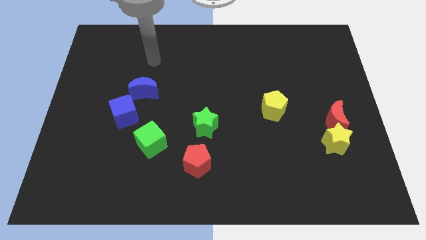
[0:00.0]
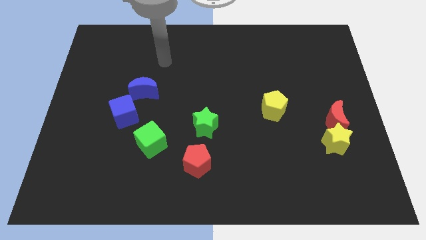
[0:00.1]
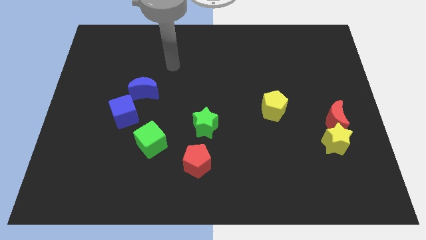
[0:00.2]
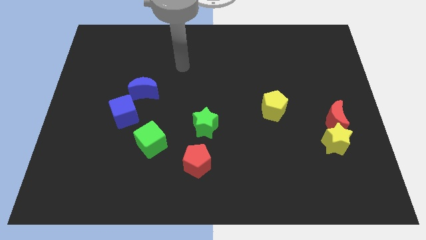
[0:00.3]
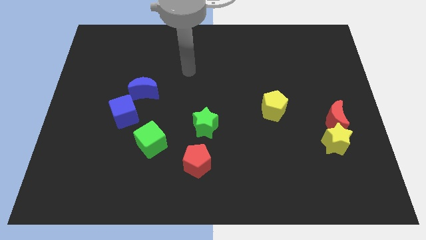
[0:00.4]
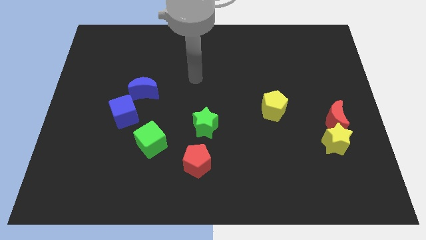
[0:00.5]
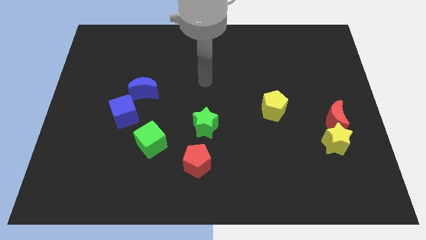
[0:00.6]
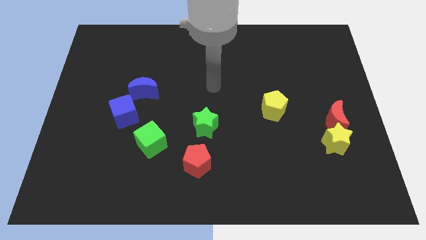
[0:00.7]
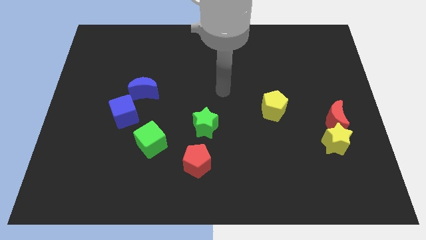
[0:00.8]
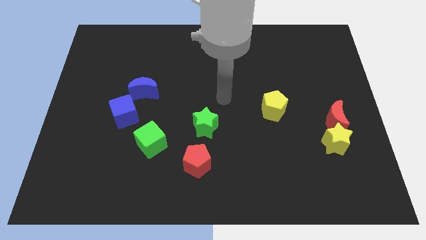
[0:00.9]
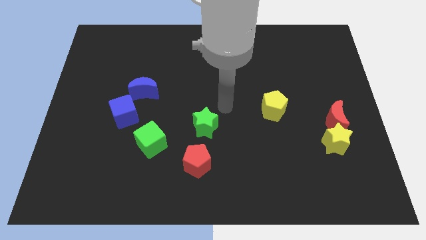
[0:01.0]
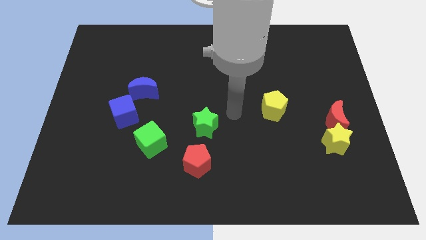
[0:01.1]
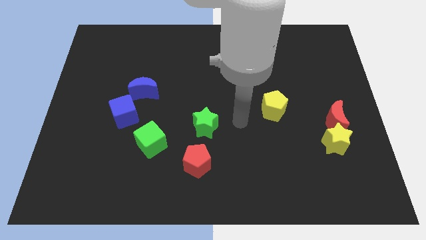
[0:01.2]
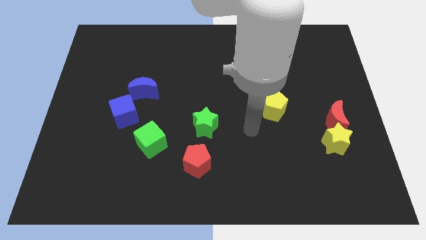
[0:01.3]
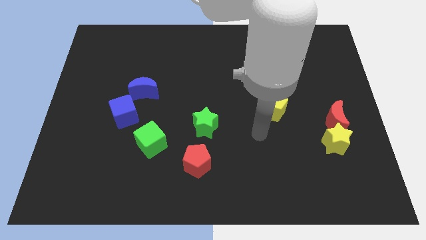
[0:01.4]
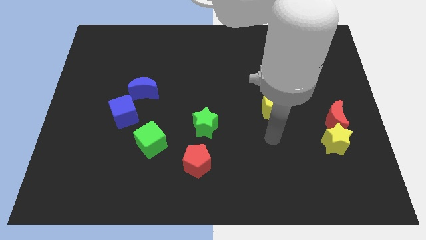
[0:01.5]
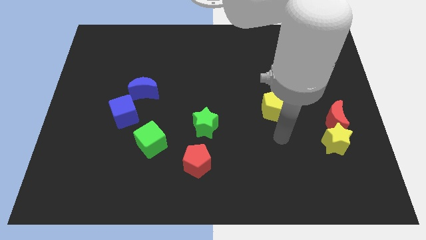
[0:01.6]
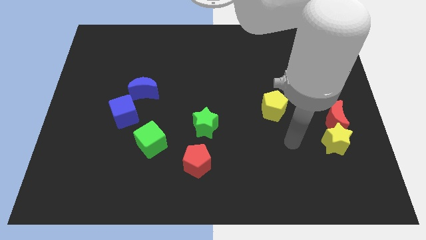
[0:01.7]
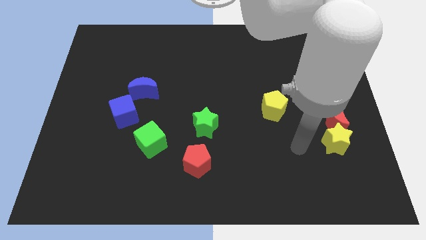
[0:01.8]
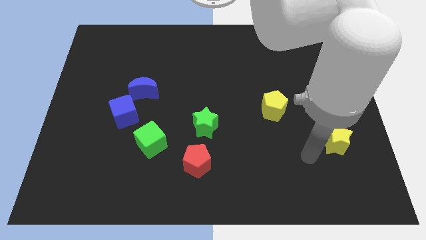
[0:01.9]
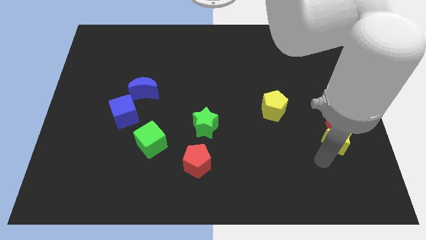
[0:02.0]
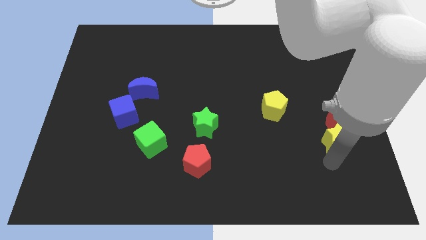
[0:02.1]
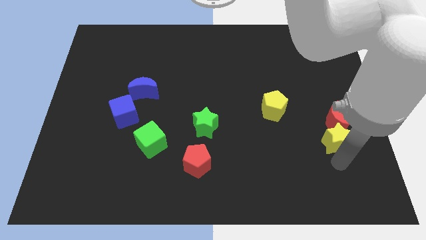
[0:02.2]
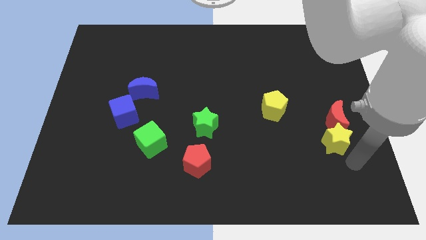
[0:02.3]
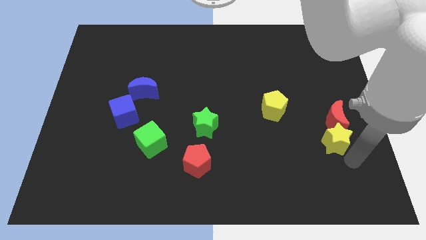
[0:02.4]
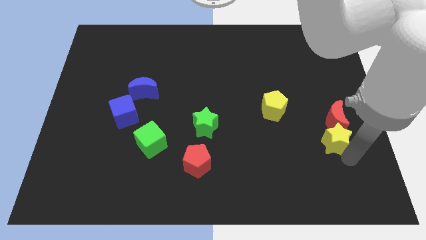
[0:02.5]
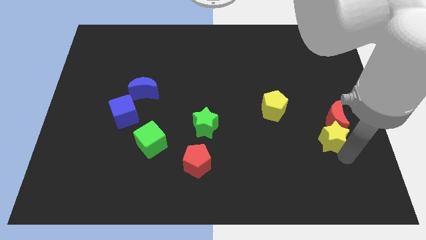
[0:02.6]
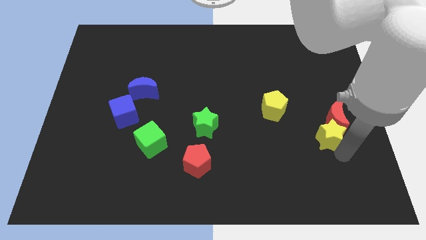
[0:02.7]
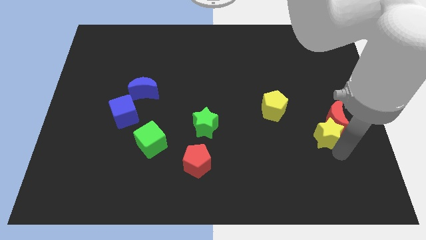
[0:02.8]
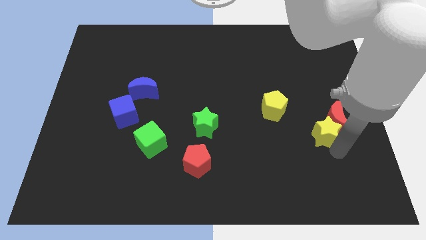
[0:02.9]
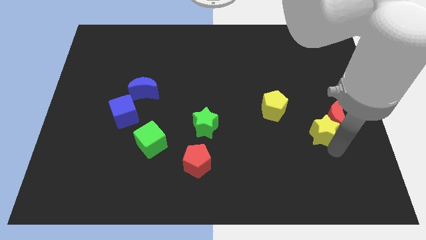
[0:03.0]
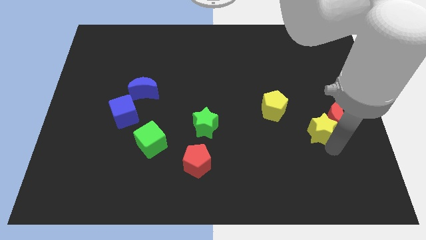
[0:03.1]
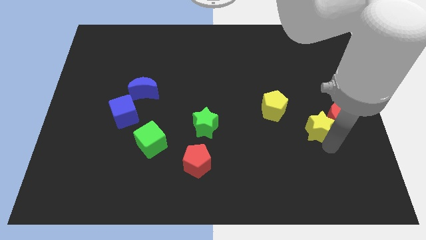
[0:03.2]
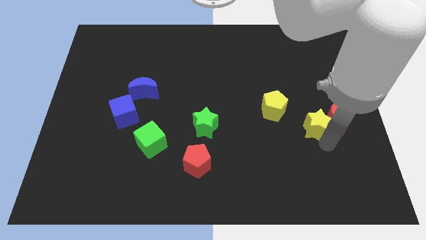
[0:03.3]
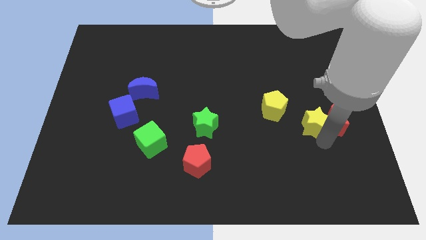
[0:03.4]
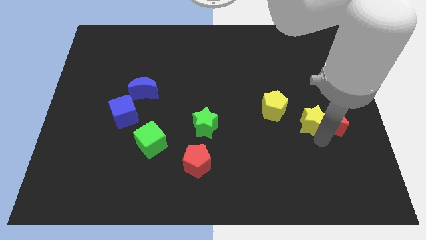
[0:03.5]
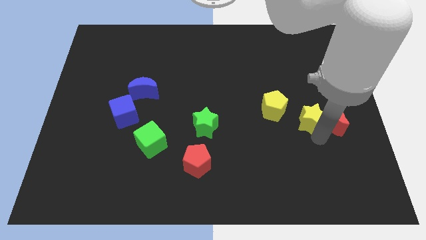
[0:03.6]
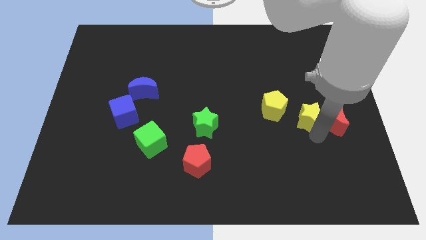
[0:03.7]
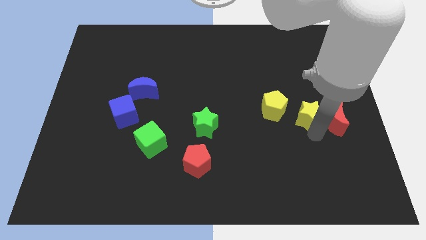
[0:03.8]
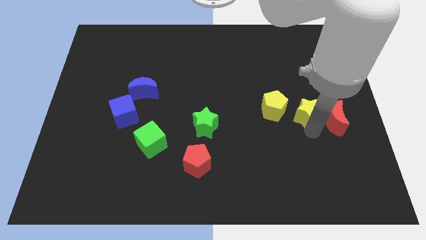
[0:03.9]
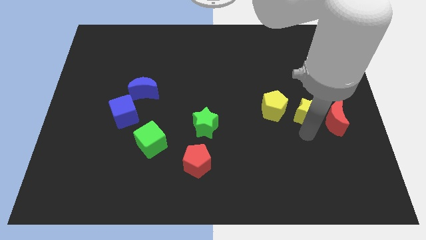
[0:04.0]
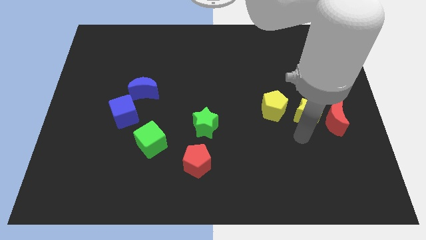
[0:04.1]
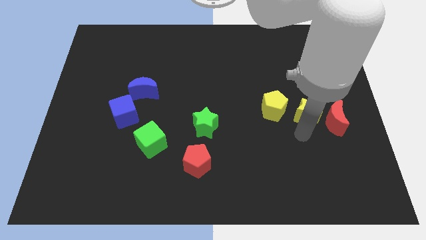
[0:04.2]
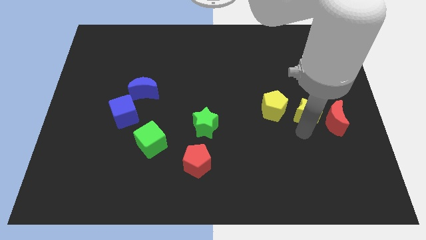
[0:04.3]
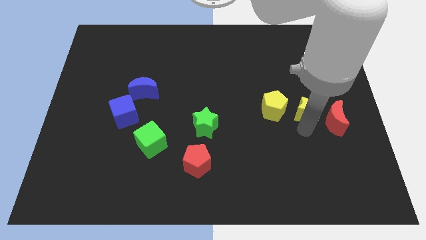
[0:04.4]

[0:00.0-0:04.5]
push the yellow star a bit up

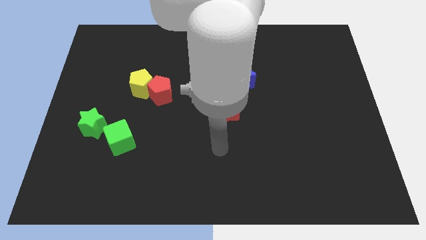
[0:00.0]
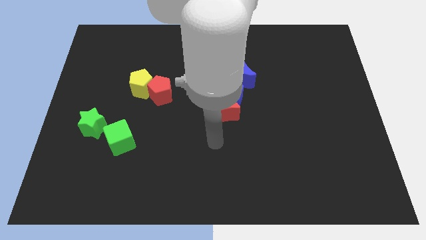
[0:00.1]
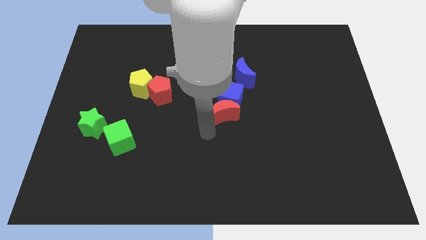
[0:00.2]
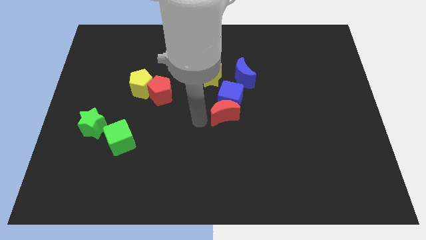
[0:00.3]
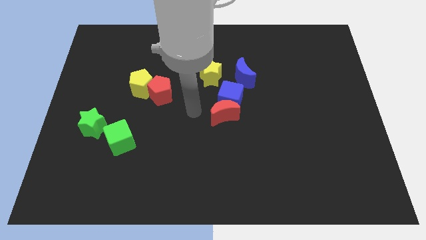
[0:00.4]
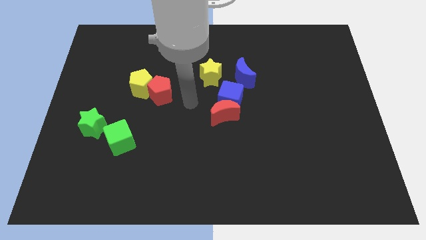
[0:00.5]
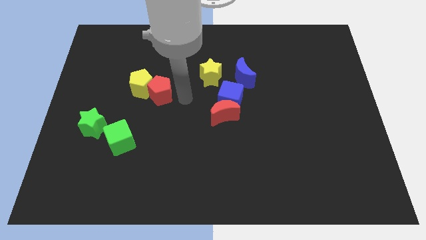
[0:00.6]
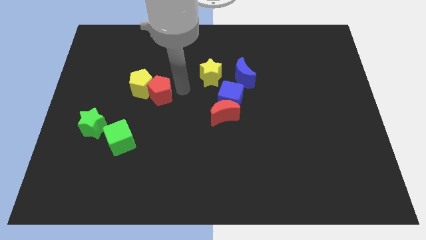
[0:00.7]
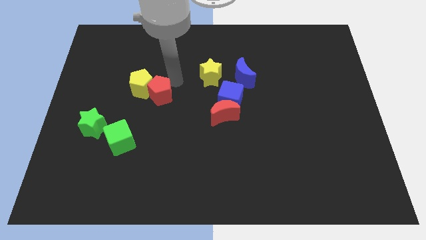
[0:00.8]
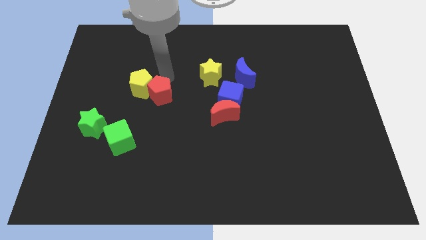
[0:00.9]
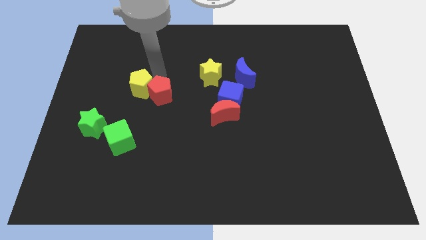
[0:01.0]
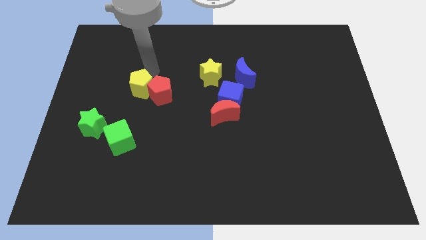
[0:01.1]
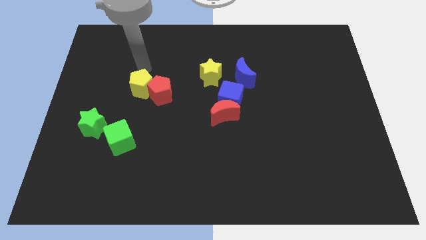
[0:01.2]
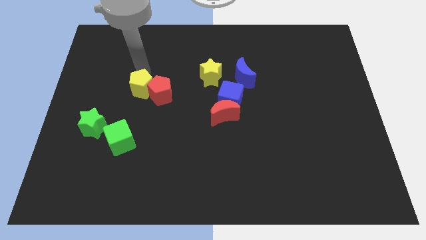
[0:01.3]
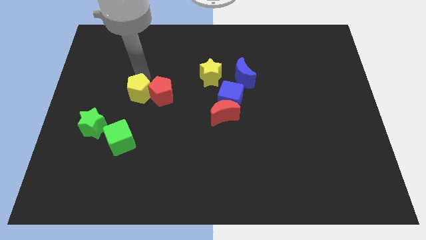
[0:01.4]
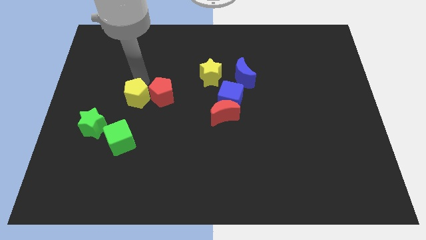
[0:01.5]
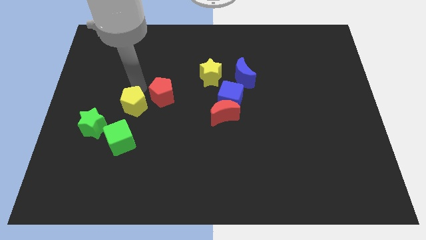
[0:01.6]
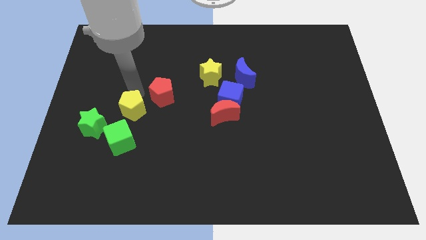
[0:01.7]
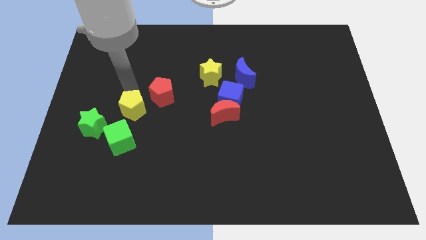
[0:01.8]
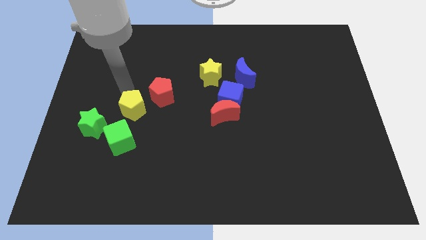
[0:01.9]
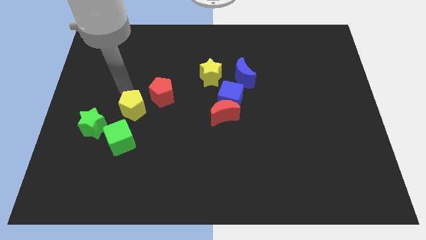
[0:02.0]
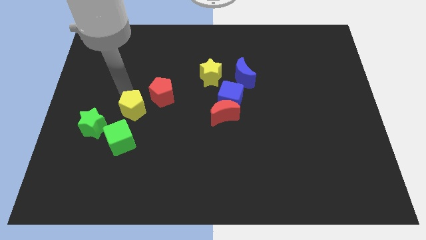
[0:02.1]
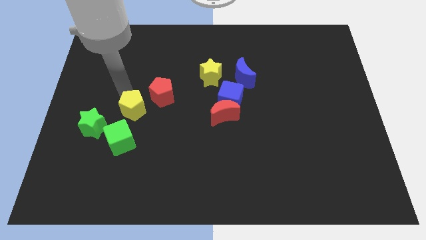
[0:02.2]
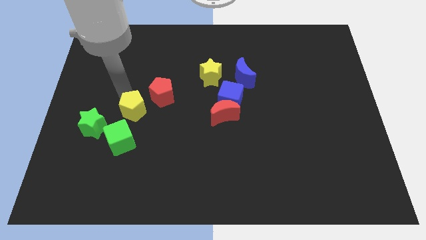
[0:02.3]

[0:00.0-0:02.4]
push the yellow pentagon slightly down

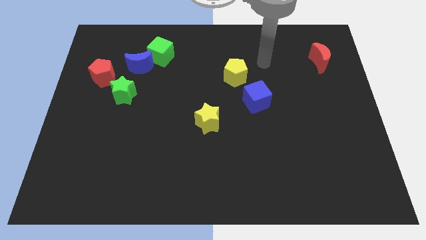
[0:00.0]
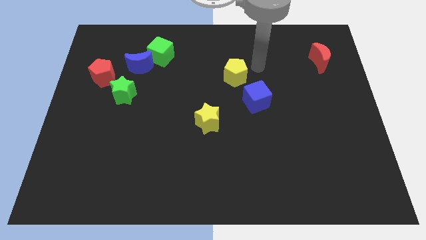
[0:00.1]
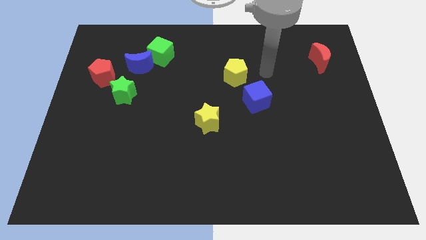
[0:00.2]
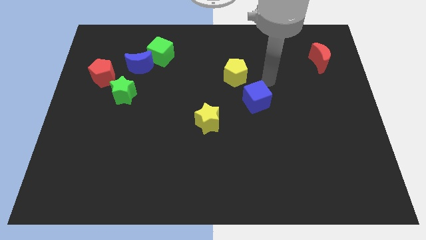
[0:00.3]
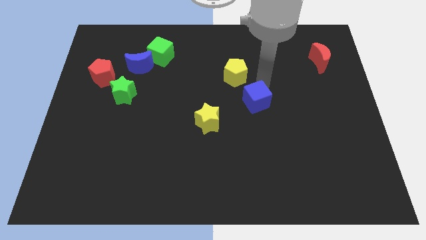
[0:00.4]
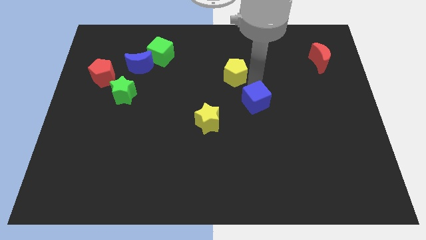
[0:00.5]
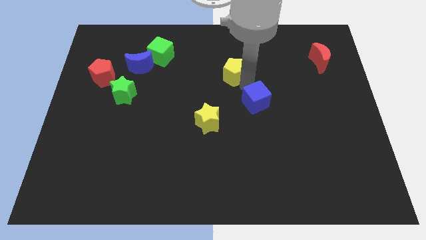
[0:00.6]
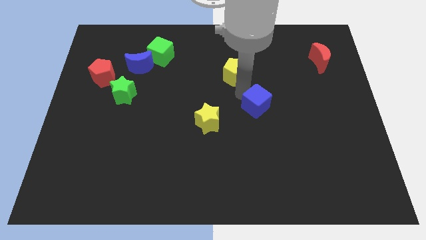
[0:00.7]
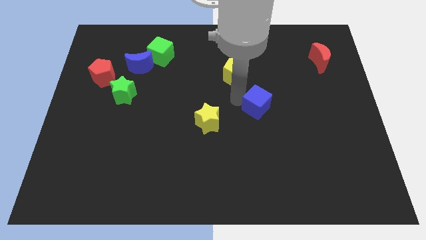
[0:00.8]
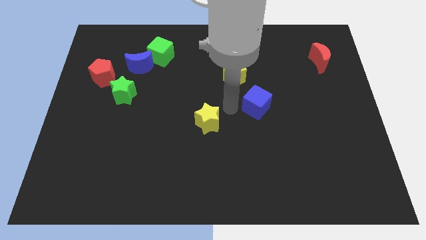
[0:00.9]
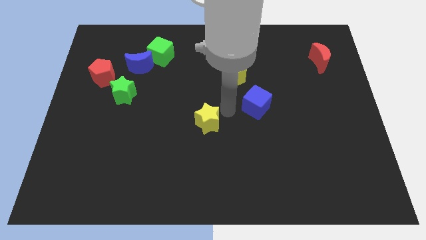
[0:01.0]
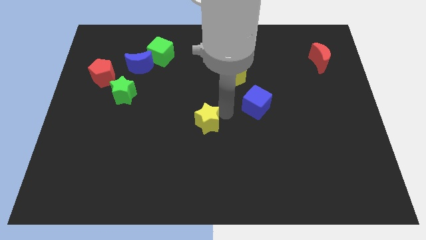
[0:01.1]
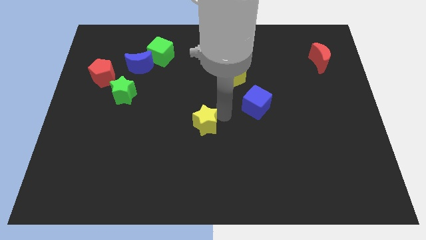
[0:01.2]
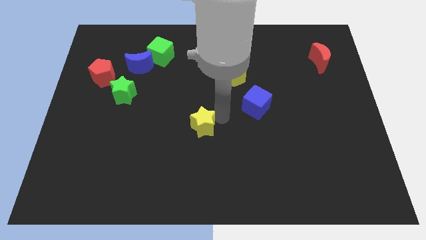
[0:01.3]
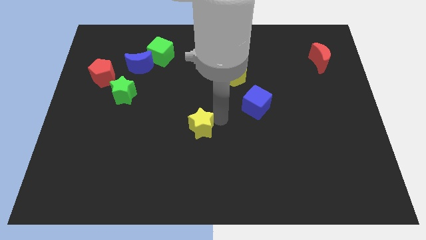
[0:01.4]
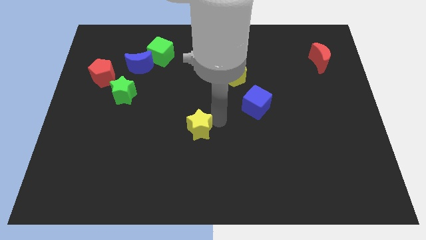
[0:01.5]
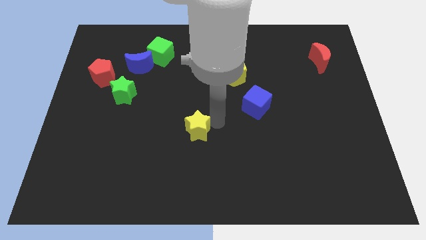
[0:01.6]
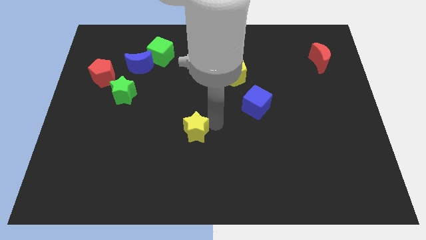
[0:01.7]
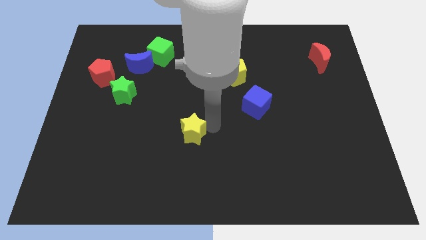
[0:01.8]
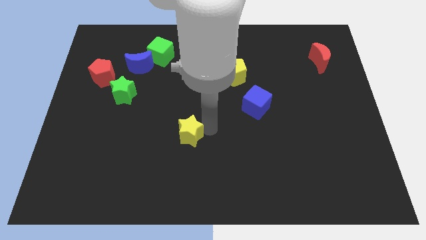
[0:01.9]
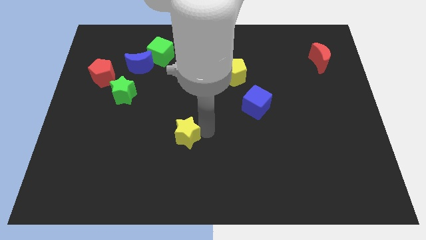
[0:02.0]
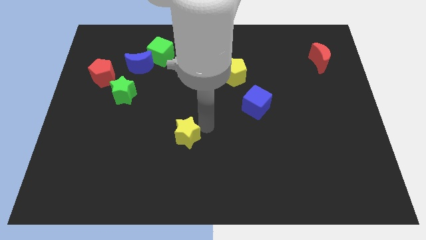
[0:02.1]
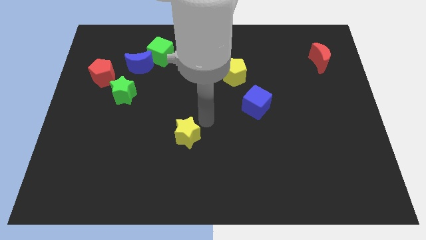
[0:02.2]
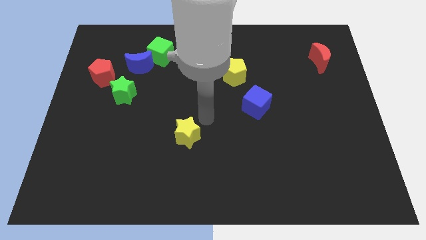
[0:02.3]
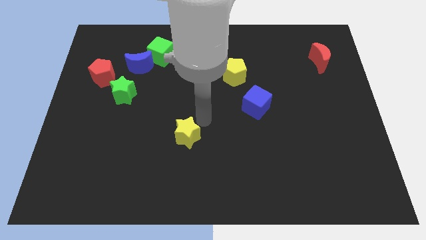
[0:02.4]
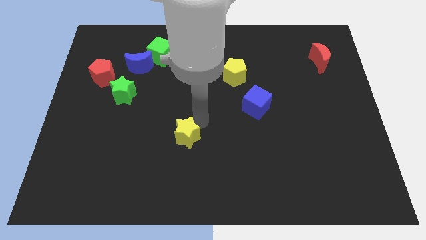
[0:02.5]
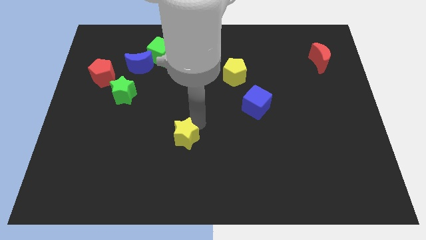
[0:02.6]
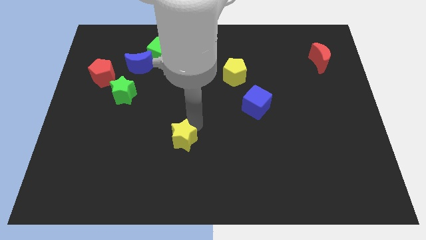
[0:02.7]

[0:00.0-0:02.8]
push the yellow star diagonally down and left a little
